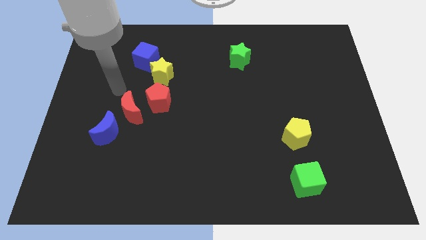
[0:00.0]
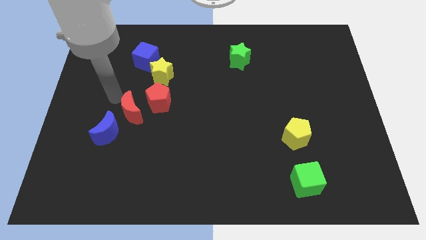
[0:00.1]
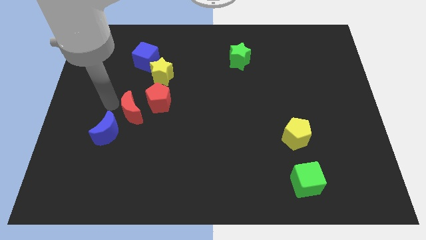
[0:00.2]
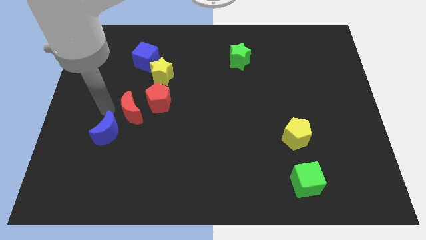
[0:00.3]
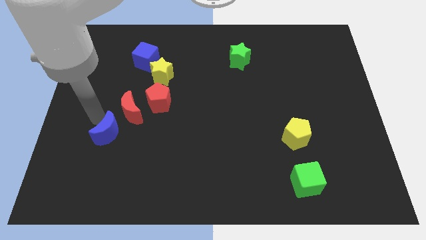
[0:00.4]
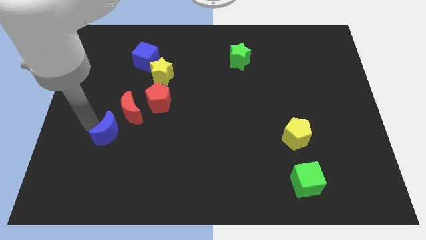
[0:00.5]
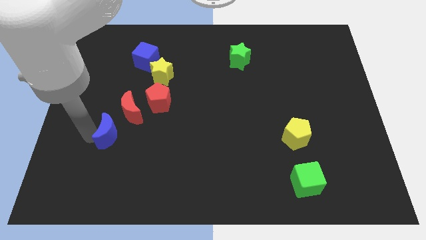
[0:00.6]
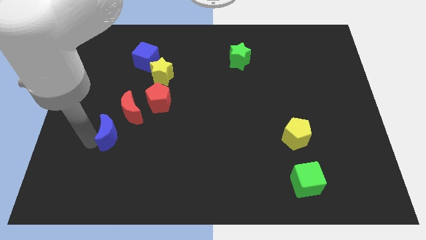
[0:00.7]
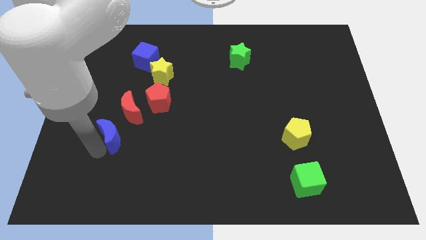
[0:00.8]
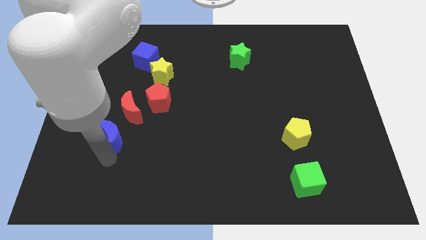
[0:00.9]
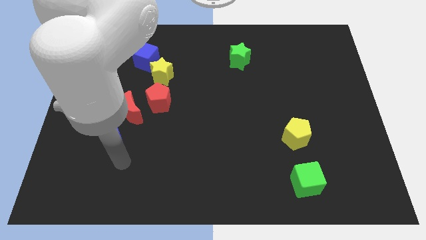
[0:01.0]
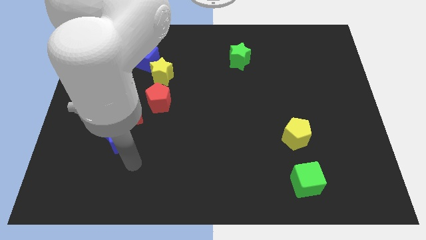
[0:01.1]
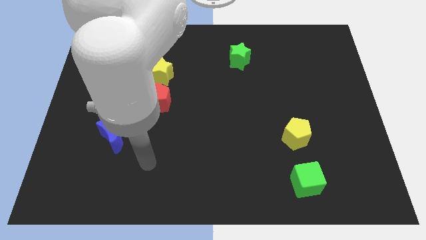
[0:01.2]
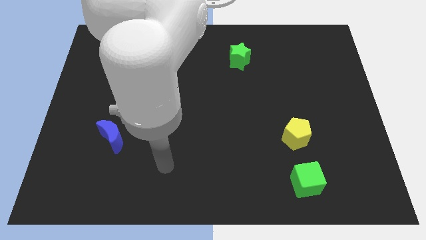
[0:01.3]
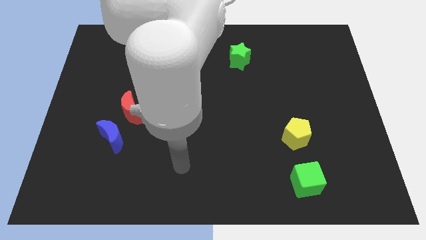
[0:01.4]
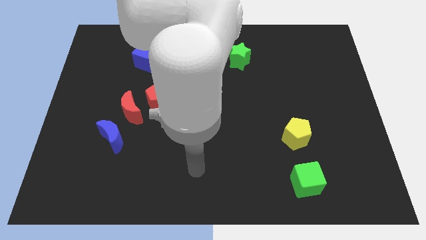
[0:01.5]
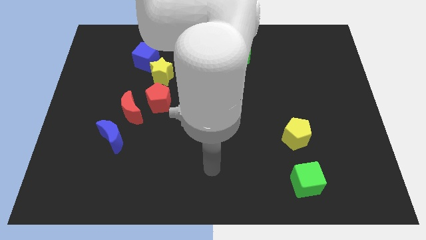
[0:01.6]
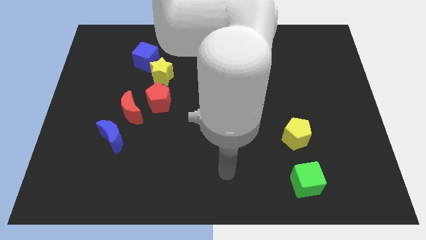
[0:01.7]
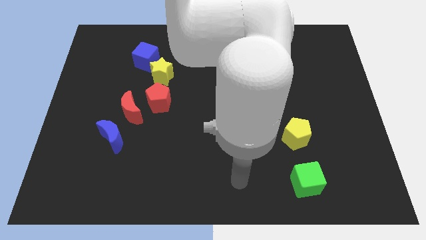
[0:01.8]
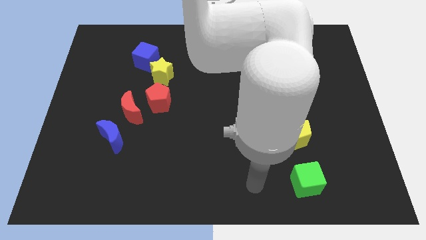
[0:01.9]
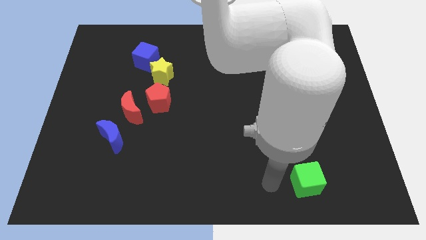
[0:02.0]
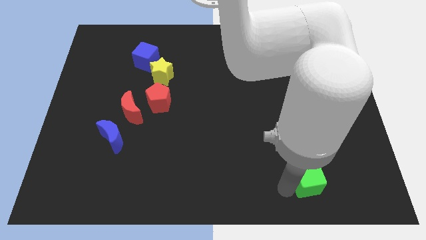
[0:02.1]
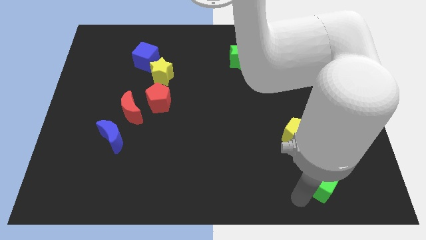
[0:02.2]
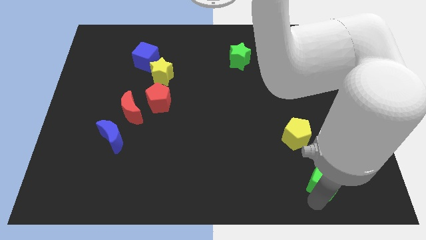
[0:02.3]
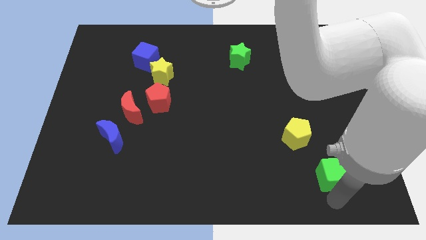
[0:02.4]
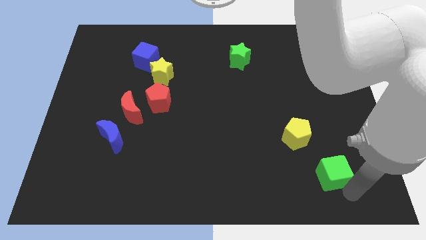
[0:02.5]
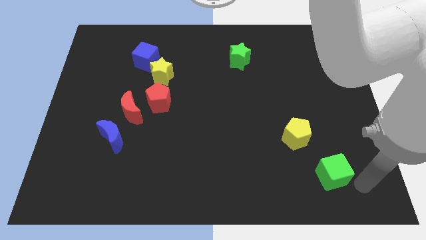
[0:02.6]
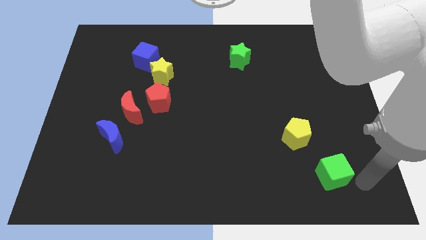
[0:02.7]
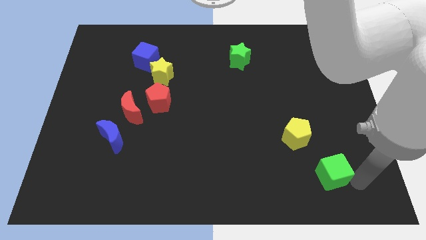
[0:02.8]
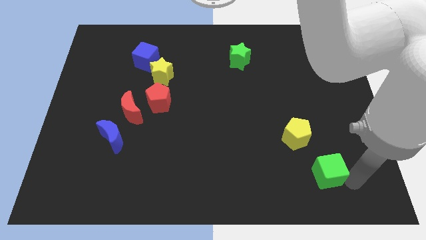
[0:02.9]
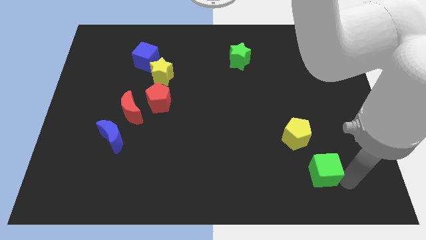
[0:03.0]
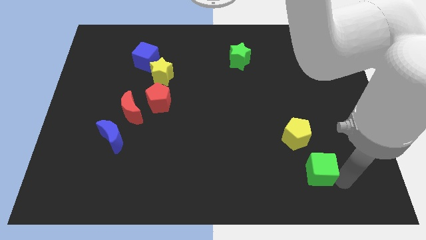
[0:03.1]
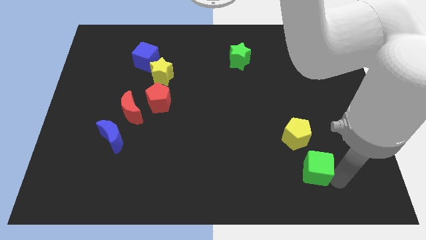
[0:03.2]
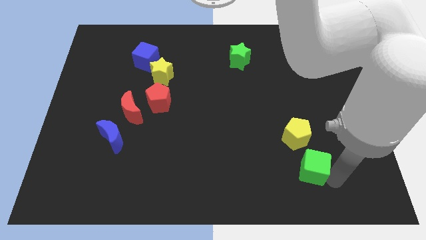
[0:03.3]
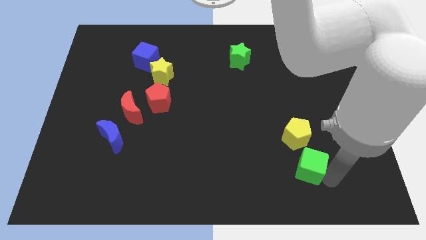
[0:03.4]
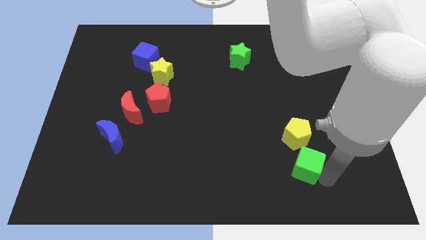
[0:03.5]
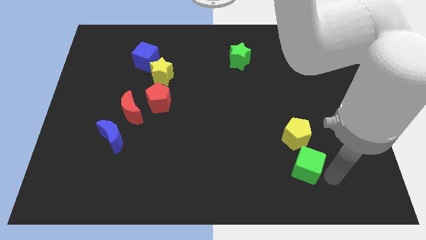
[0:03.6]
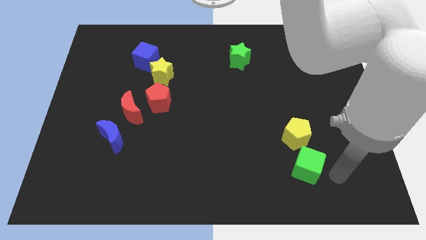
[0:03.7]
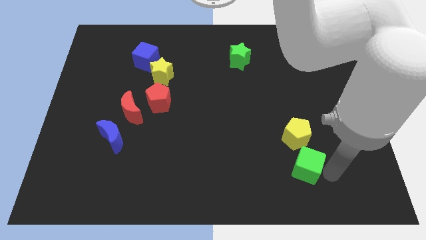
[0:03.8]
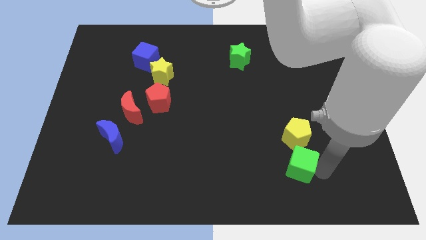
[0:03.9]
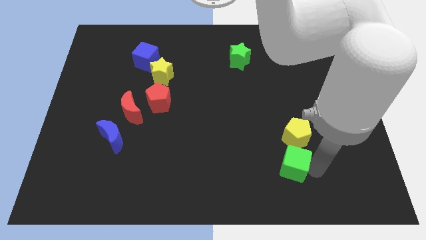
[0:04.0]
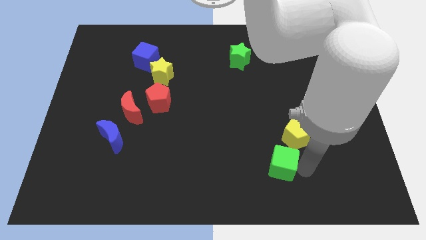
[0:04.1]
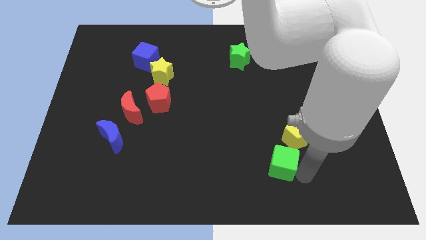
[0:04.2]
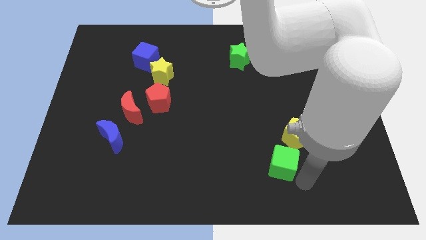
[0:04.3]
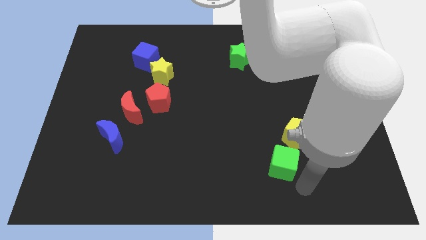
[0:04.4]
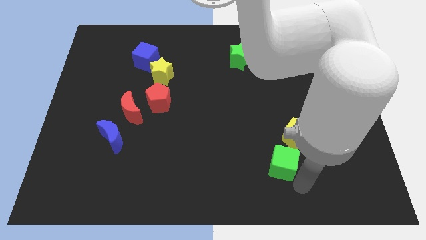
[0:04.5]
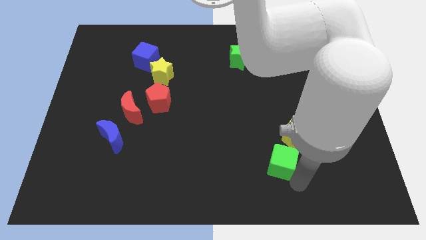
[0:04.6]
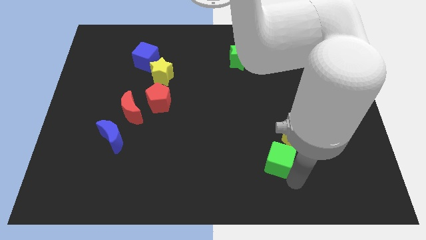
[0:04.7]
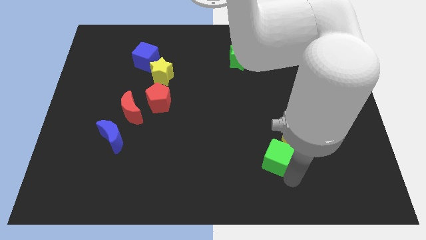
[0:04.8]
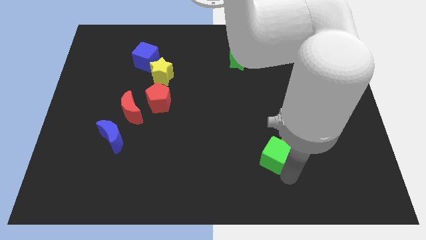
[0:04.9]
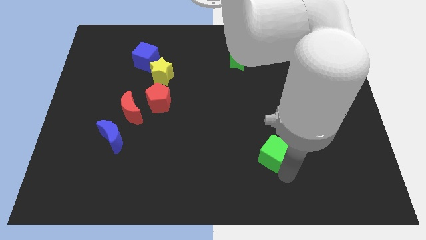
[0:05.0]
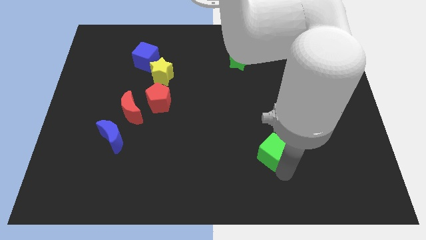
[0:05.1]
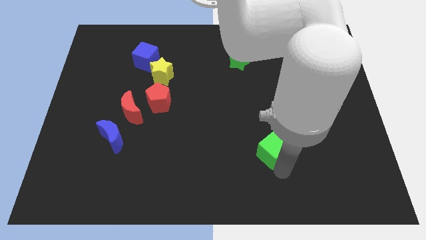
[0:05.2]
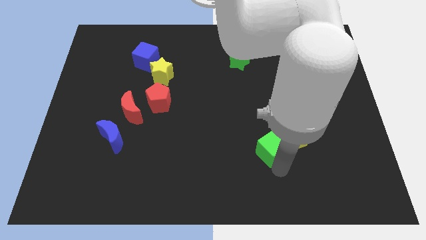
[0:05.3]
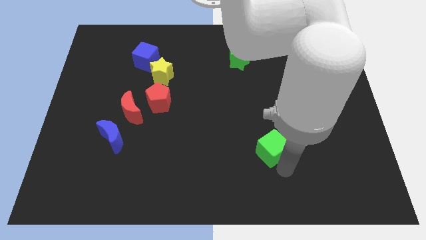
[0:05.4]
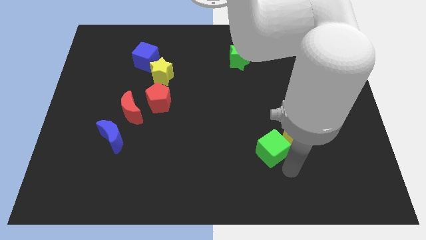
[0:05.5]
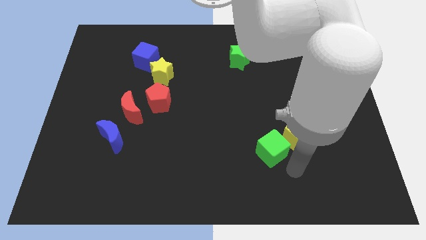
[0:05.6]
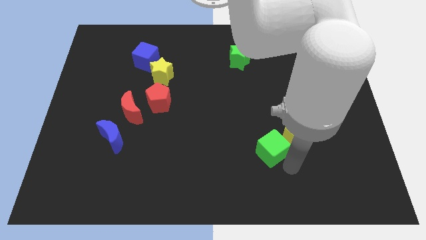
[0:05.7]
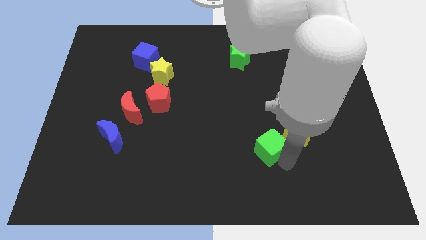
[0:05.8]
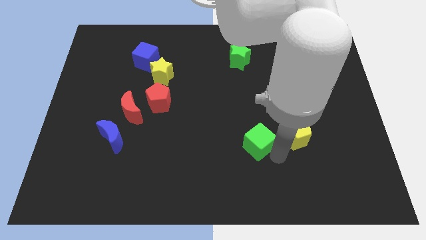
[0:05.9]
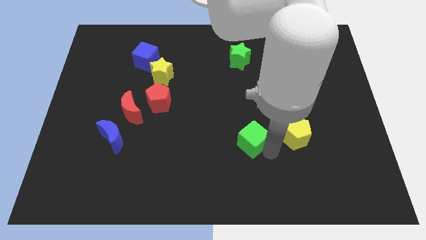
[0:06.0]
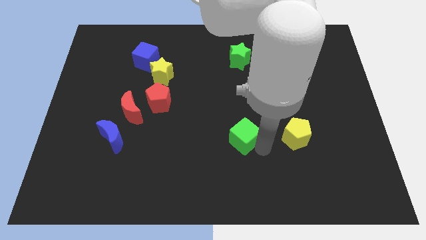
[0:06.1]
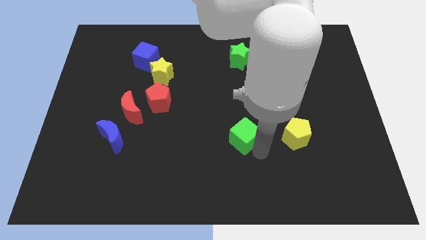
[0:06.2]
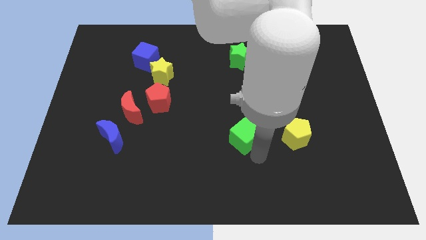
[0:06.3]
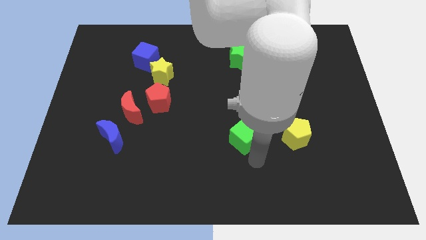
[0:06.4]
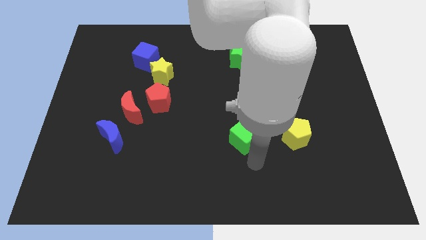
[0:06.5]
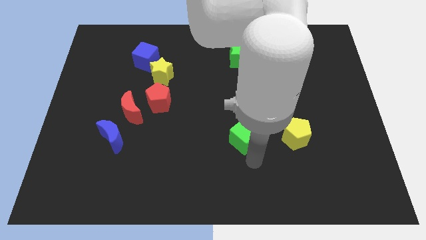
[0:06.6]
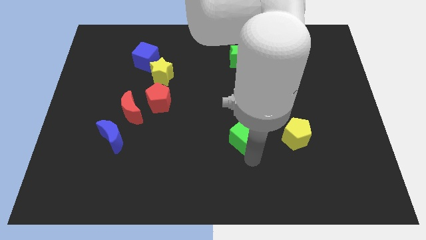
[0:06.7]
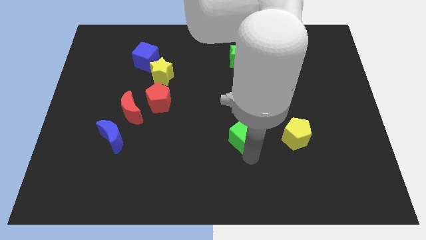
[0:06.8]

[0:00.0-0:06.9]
slide the green cube to the center of the board
